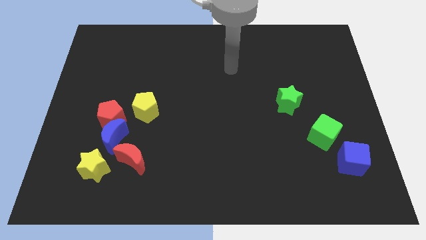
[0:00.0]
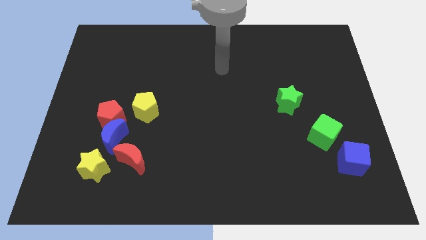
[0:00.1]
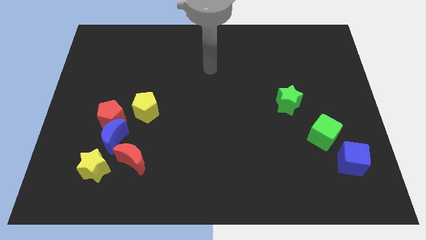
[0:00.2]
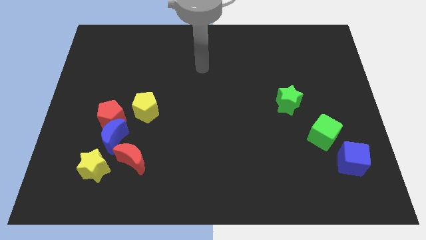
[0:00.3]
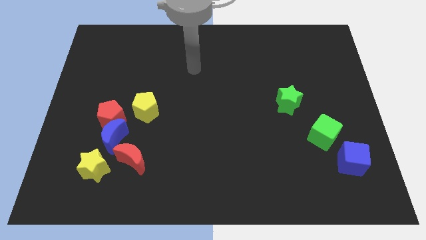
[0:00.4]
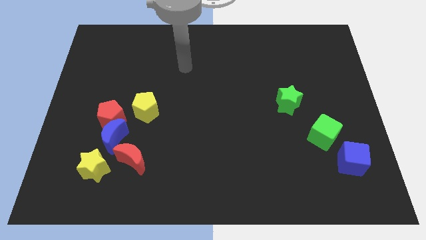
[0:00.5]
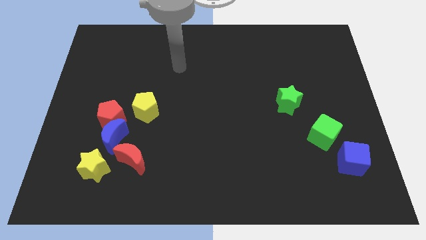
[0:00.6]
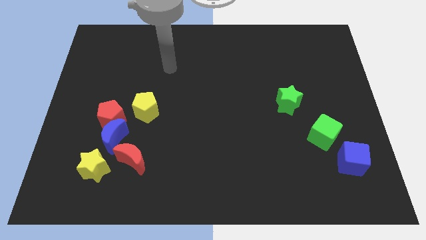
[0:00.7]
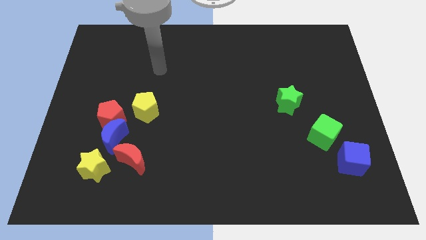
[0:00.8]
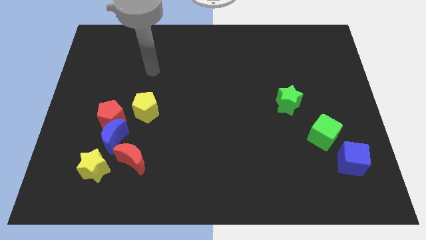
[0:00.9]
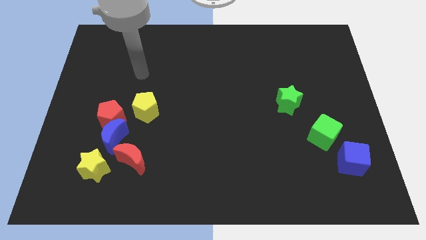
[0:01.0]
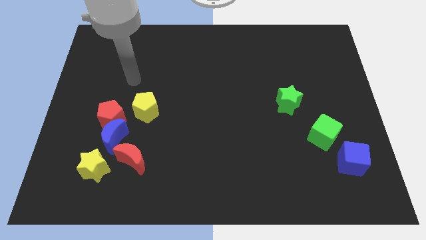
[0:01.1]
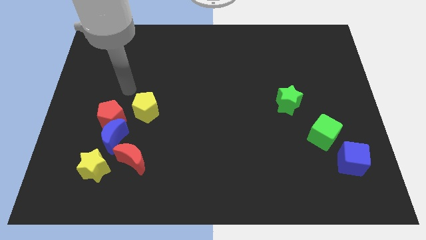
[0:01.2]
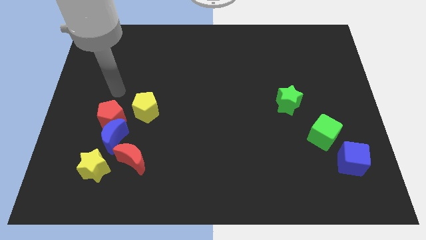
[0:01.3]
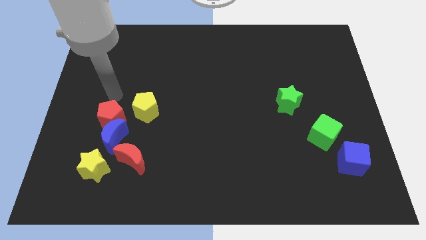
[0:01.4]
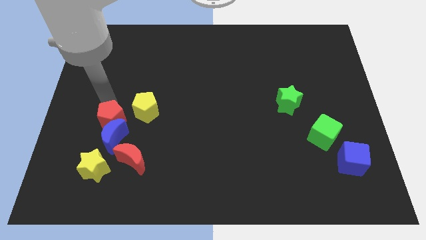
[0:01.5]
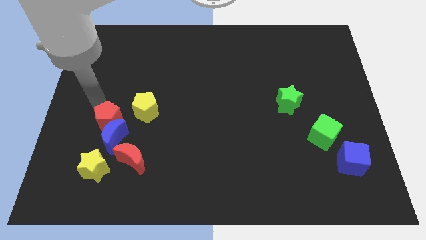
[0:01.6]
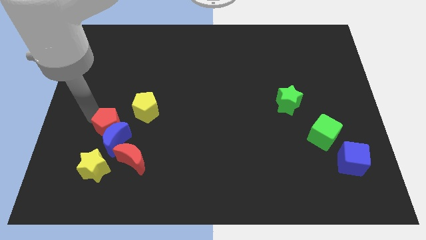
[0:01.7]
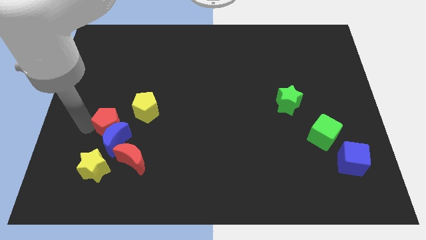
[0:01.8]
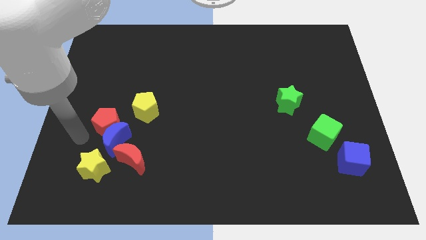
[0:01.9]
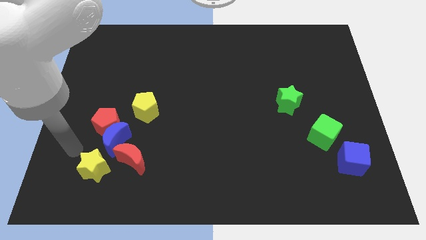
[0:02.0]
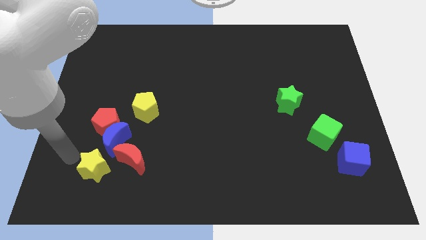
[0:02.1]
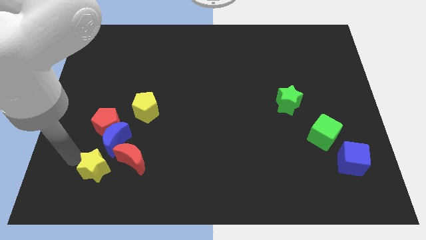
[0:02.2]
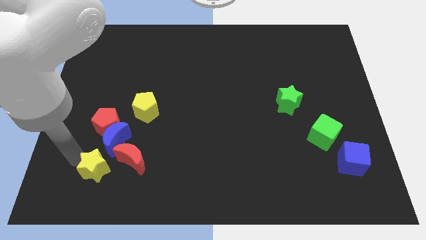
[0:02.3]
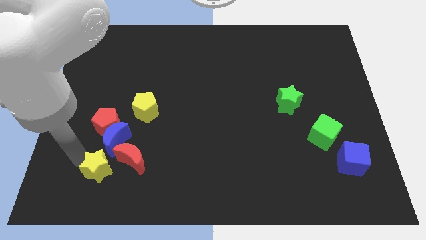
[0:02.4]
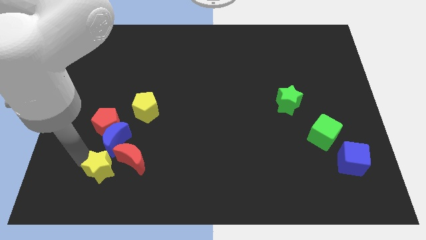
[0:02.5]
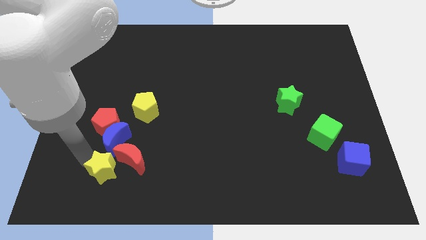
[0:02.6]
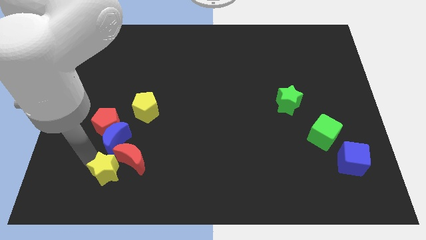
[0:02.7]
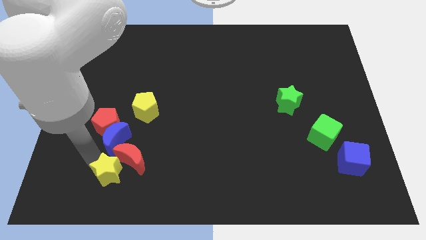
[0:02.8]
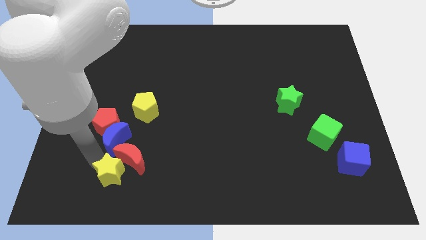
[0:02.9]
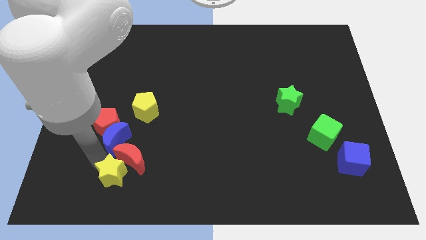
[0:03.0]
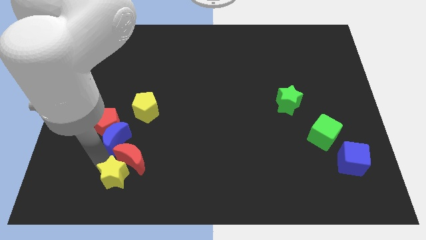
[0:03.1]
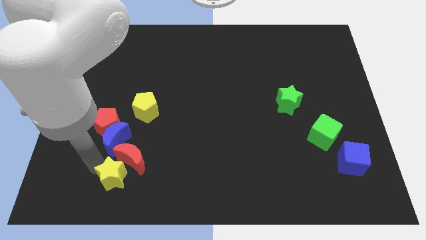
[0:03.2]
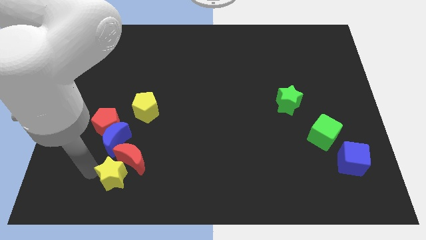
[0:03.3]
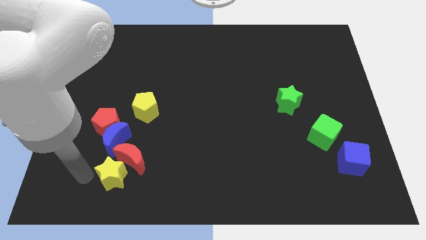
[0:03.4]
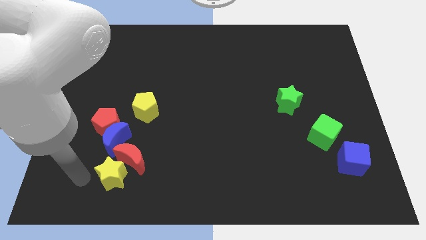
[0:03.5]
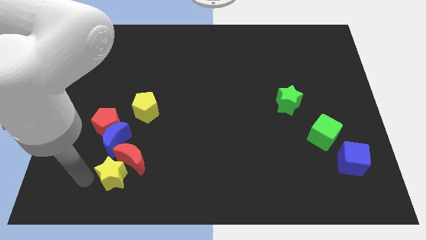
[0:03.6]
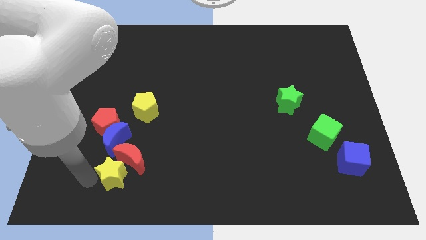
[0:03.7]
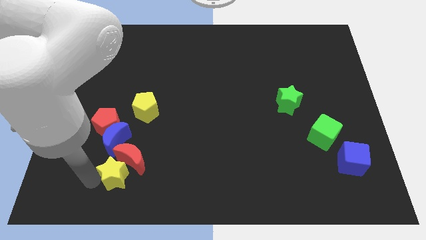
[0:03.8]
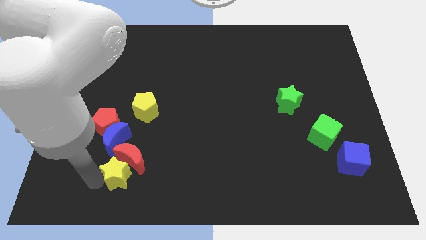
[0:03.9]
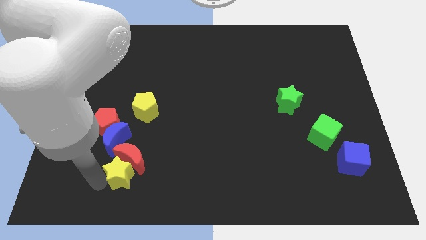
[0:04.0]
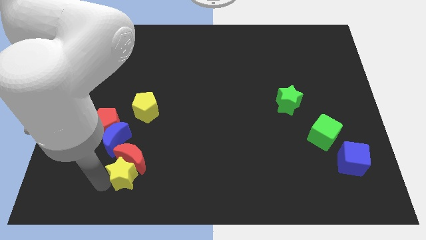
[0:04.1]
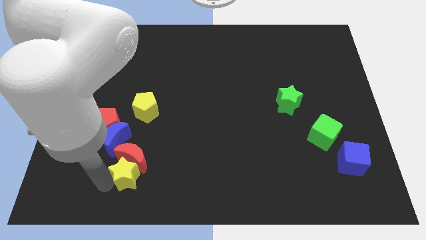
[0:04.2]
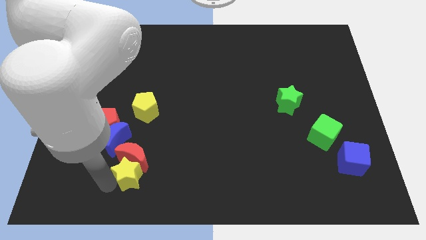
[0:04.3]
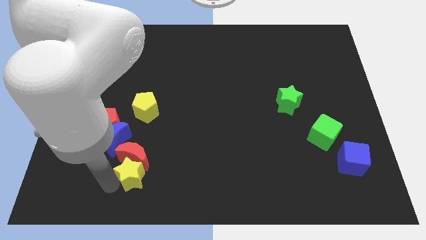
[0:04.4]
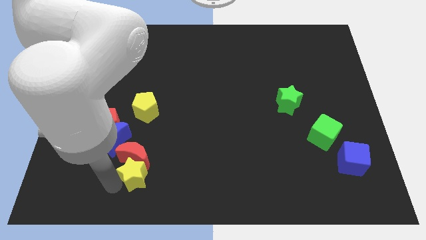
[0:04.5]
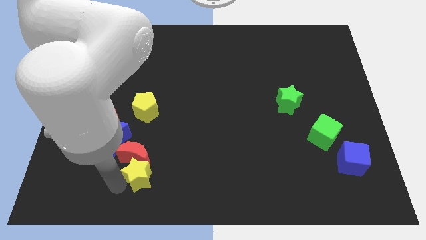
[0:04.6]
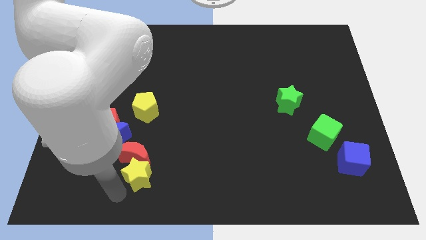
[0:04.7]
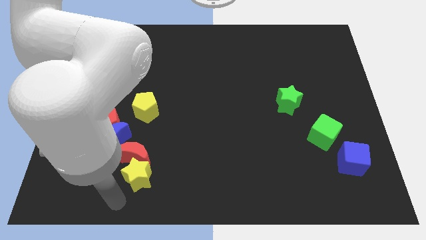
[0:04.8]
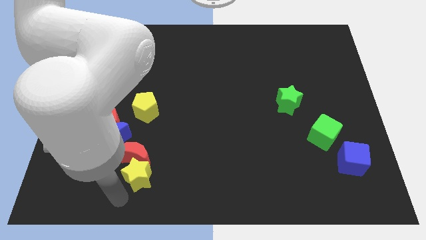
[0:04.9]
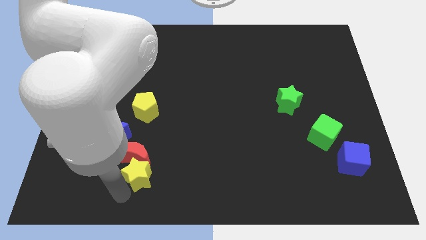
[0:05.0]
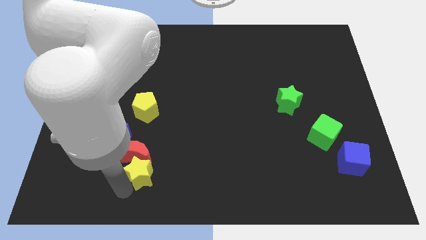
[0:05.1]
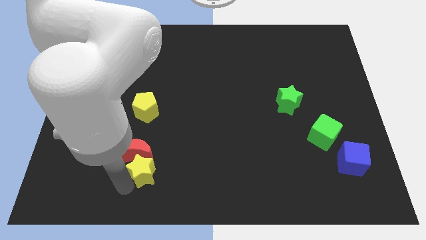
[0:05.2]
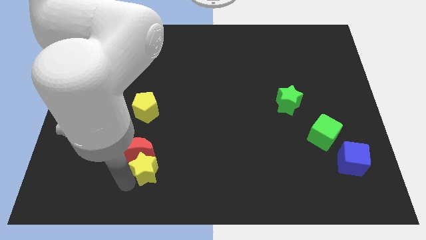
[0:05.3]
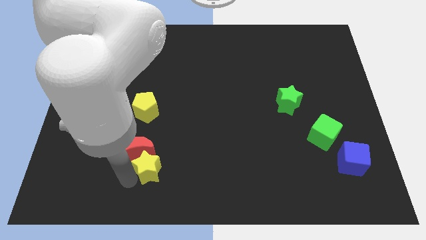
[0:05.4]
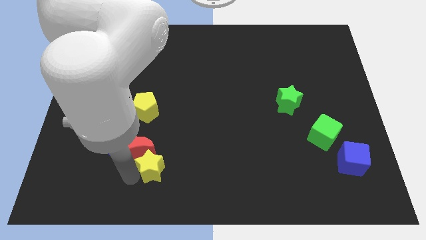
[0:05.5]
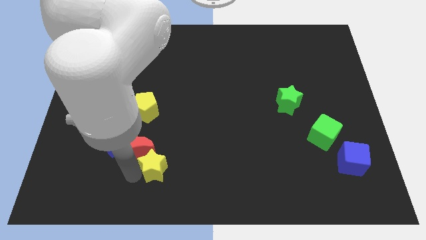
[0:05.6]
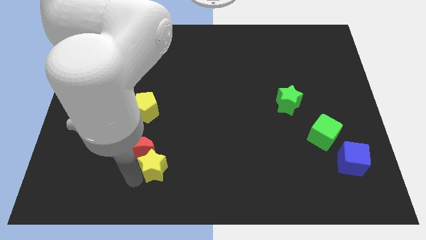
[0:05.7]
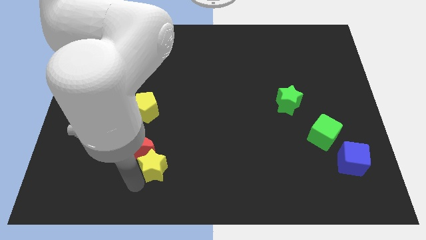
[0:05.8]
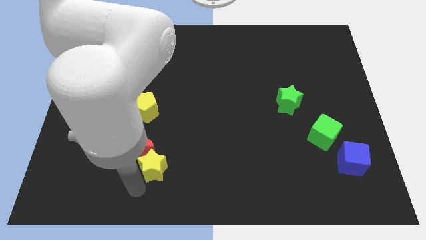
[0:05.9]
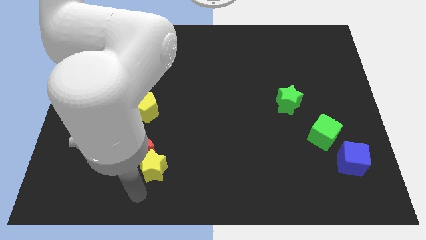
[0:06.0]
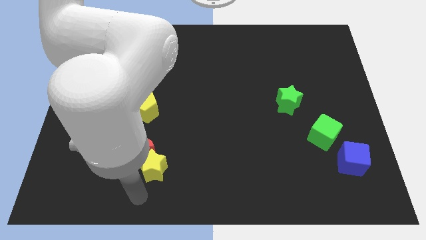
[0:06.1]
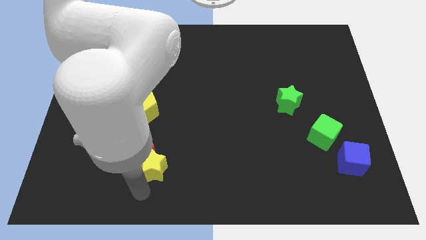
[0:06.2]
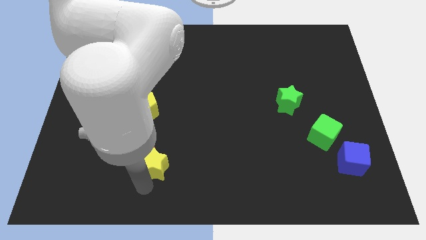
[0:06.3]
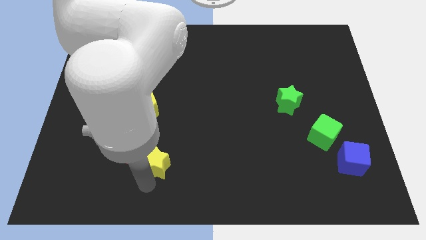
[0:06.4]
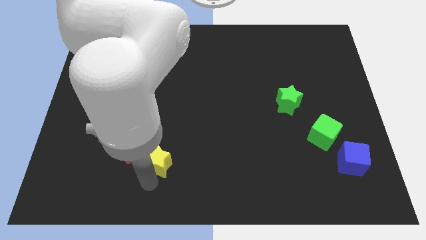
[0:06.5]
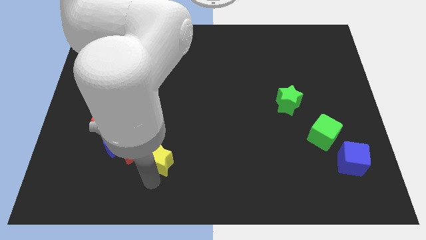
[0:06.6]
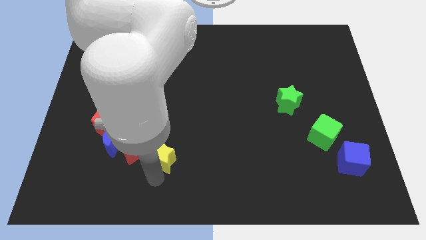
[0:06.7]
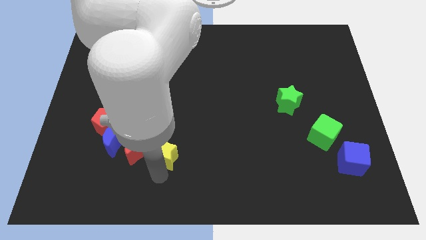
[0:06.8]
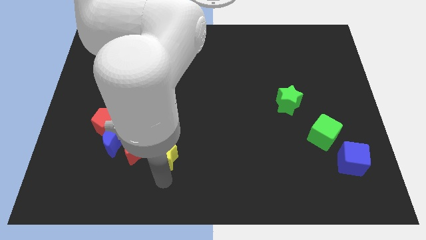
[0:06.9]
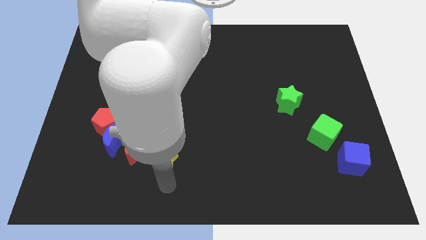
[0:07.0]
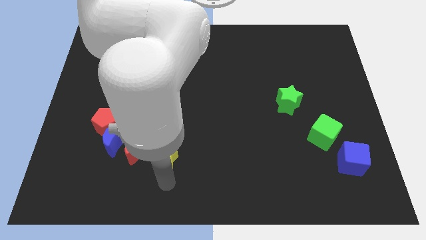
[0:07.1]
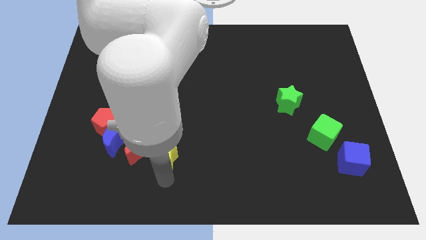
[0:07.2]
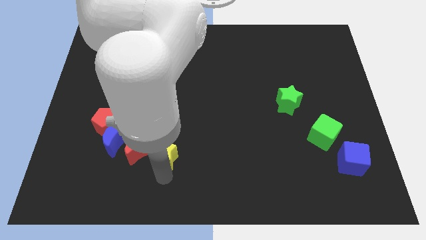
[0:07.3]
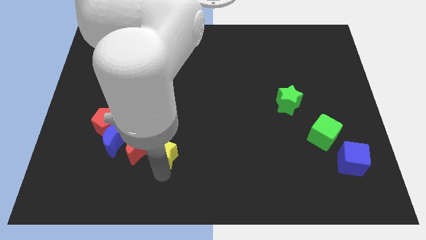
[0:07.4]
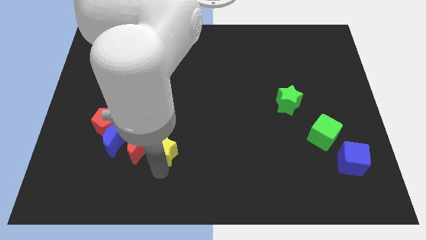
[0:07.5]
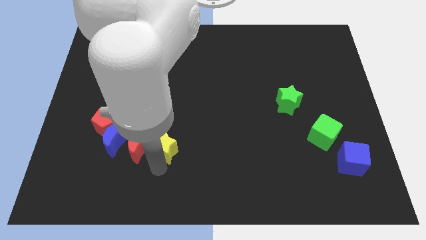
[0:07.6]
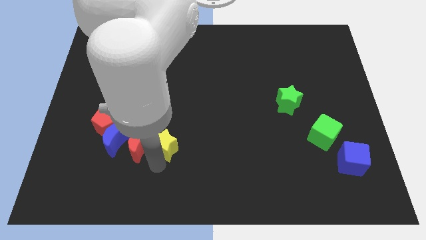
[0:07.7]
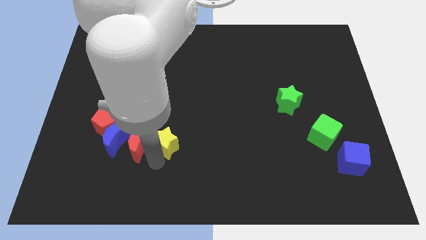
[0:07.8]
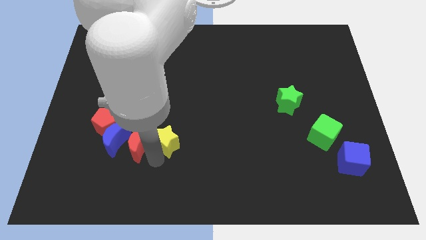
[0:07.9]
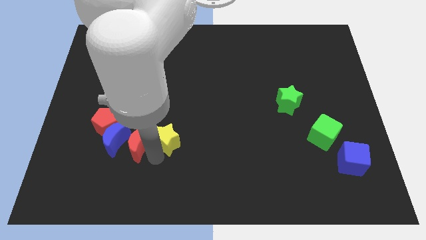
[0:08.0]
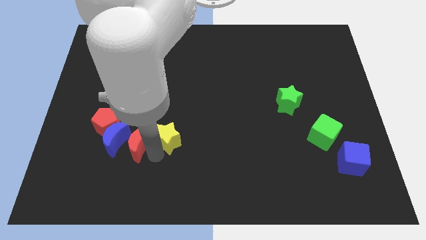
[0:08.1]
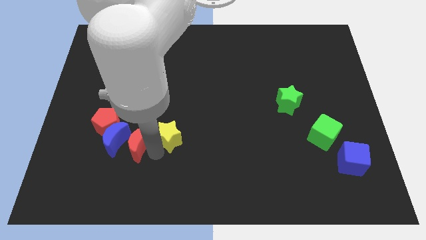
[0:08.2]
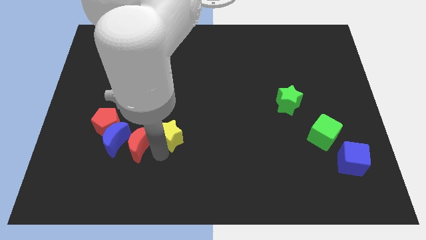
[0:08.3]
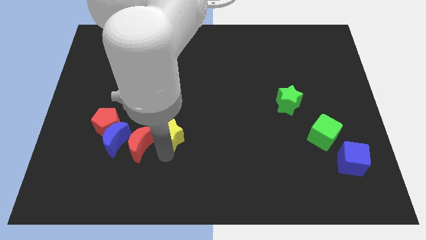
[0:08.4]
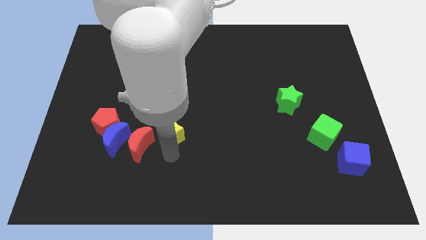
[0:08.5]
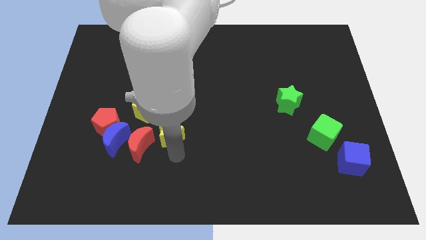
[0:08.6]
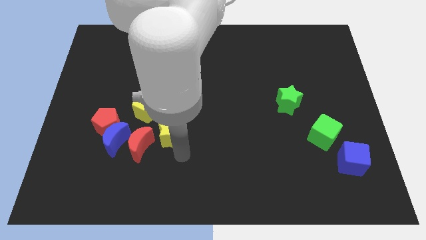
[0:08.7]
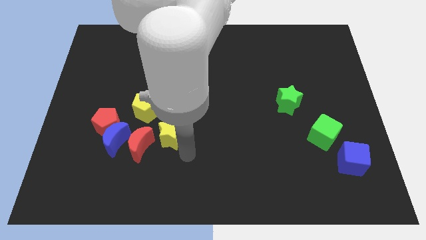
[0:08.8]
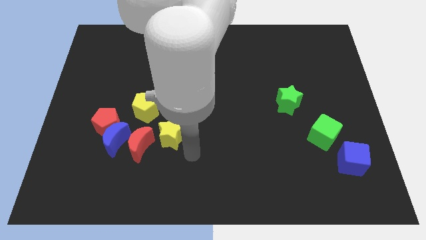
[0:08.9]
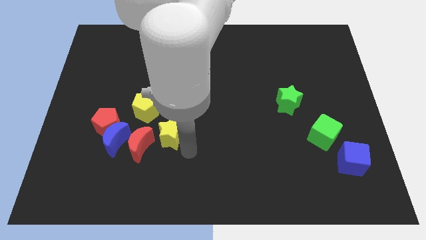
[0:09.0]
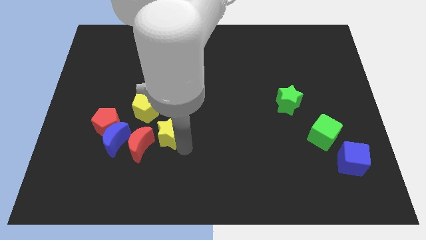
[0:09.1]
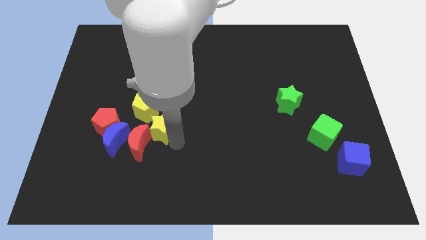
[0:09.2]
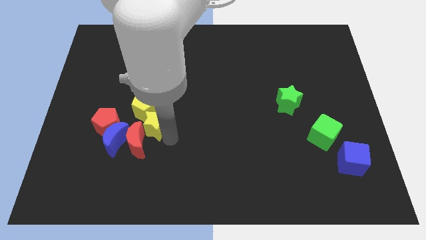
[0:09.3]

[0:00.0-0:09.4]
put the yellow star to the yellow pentagon
